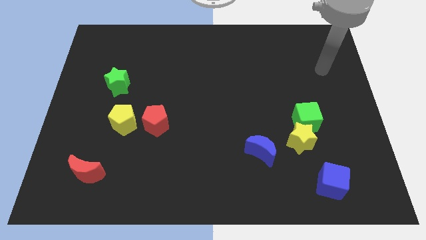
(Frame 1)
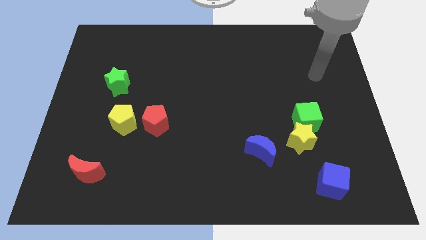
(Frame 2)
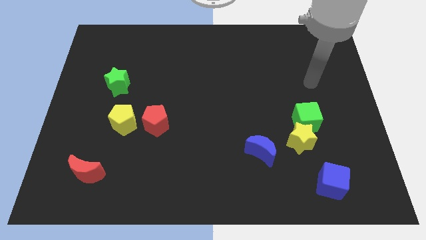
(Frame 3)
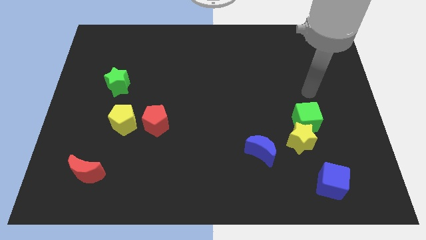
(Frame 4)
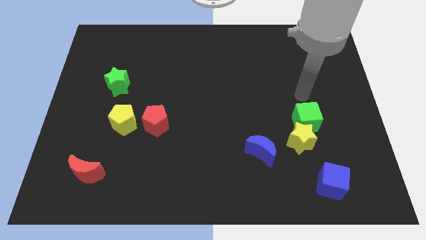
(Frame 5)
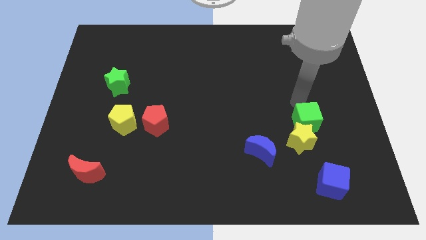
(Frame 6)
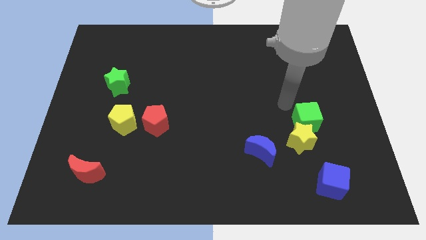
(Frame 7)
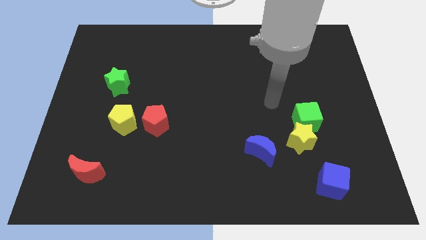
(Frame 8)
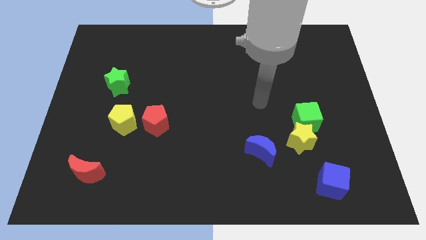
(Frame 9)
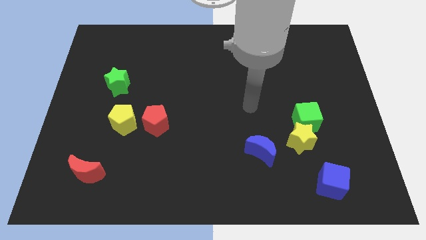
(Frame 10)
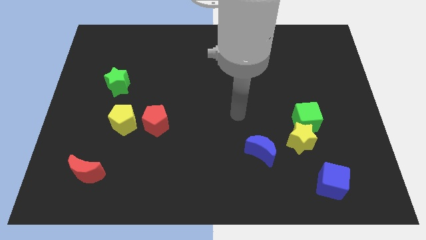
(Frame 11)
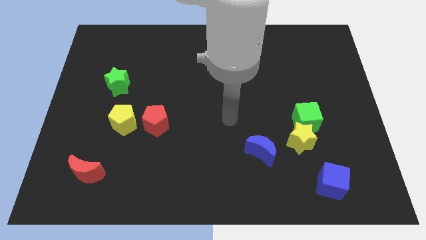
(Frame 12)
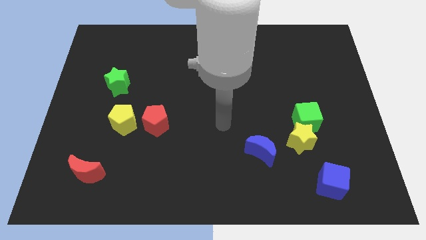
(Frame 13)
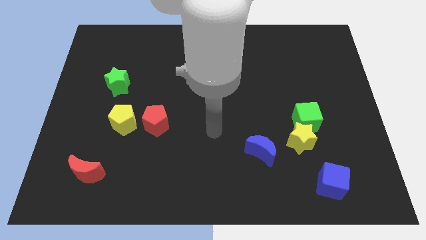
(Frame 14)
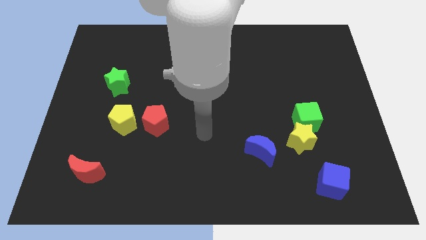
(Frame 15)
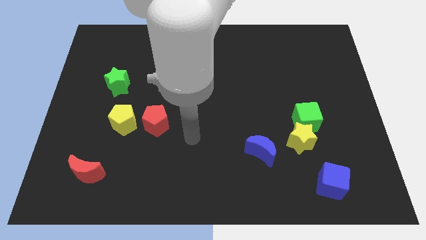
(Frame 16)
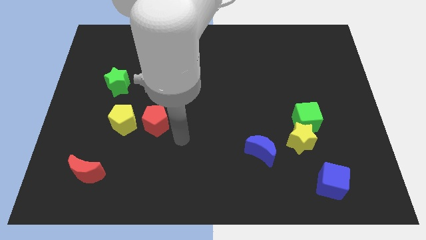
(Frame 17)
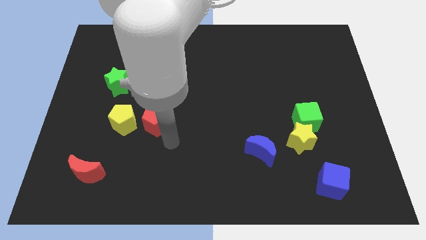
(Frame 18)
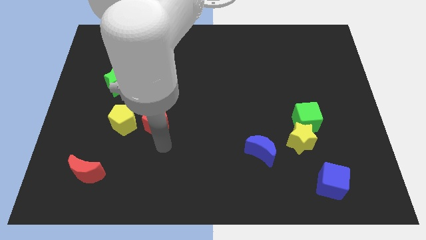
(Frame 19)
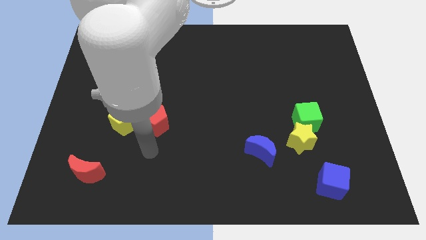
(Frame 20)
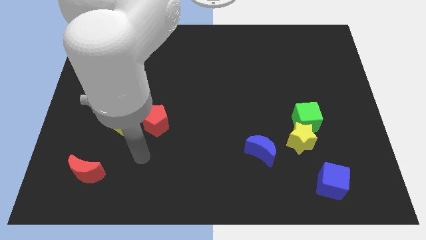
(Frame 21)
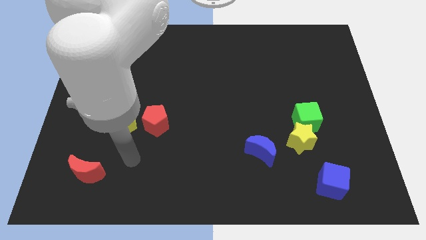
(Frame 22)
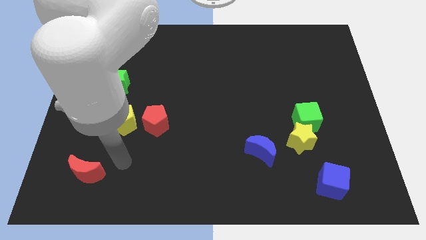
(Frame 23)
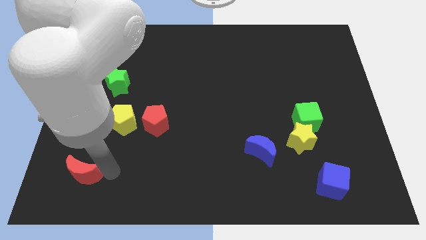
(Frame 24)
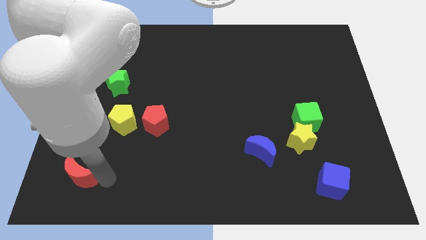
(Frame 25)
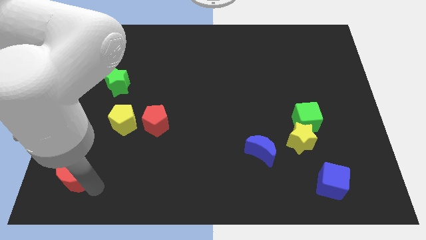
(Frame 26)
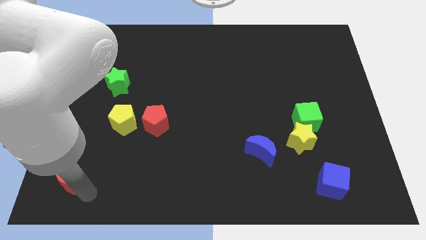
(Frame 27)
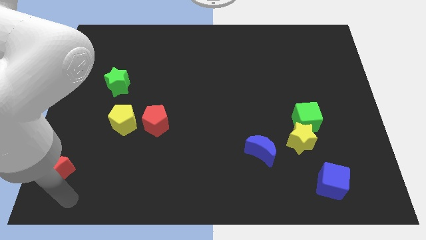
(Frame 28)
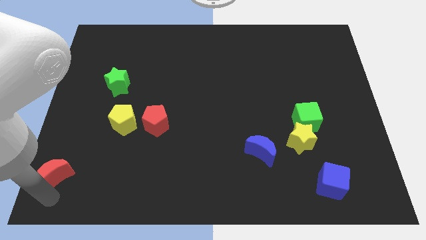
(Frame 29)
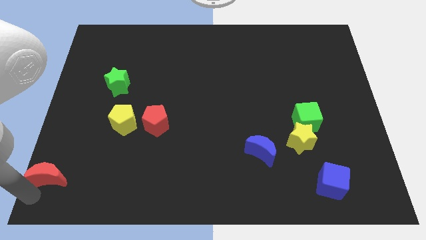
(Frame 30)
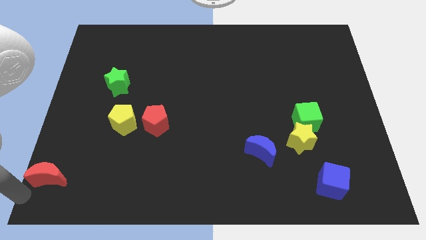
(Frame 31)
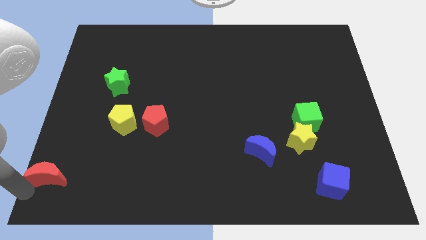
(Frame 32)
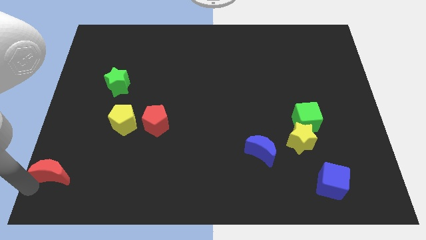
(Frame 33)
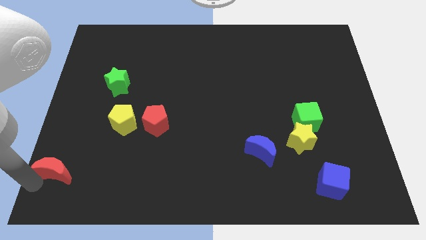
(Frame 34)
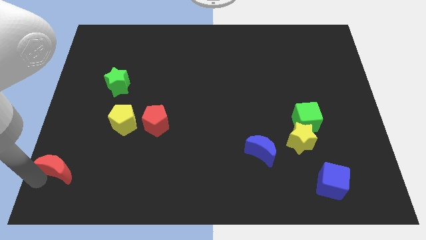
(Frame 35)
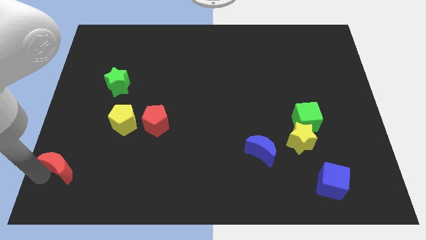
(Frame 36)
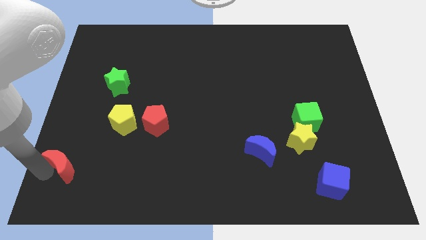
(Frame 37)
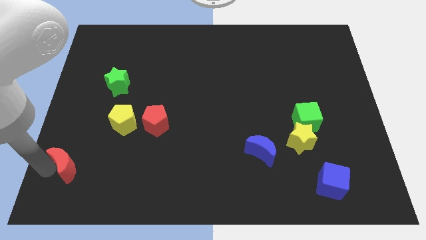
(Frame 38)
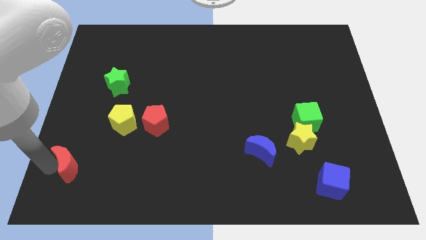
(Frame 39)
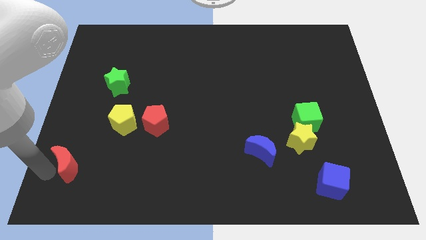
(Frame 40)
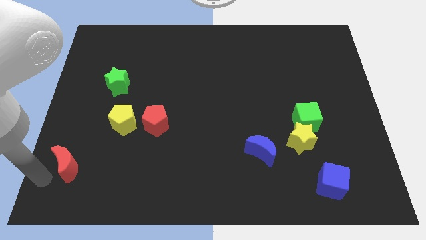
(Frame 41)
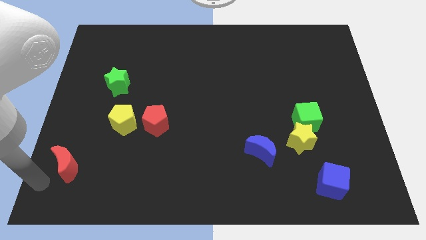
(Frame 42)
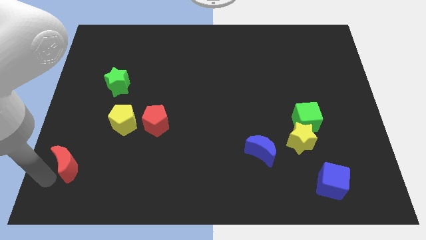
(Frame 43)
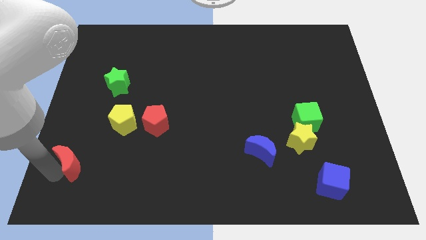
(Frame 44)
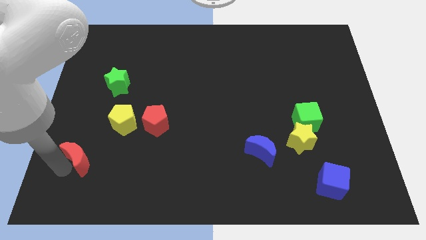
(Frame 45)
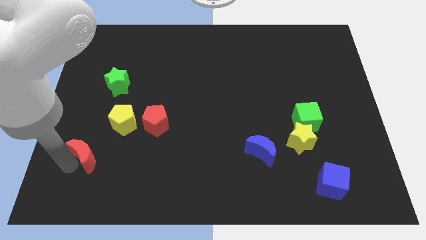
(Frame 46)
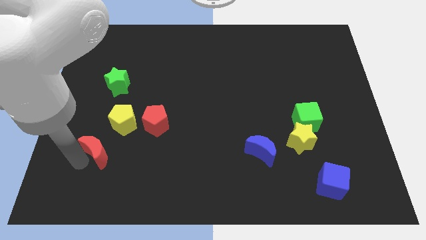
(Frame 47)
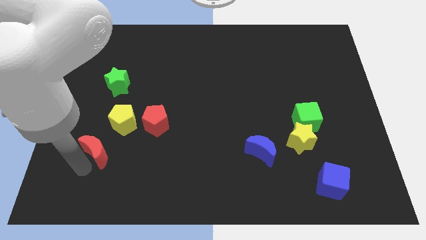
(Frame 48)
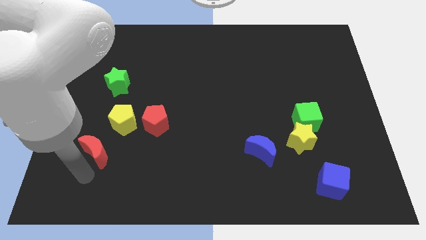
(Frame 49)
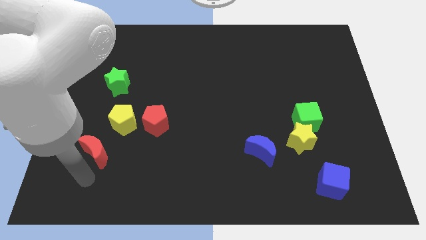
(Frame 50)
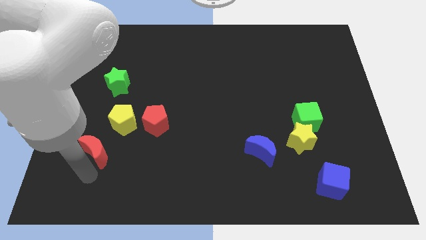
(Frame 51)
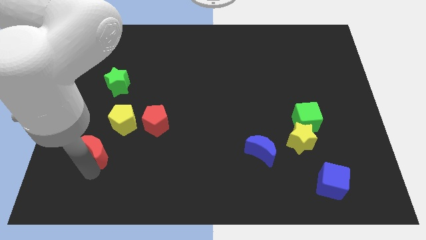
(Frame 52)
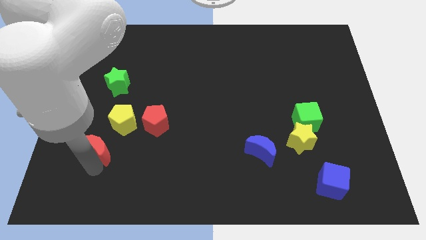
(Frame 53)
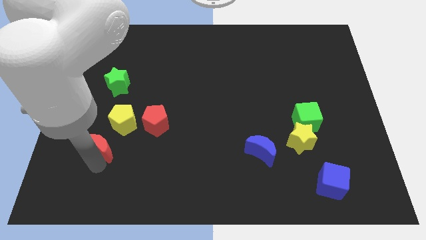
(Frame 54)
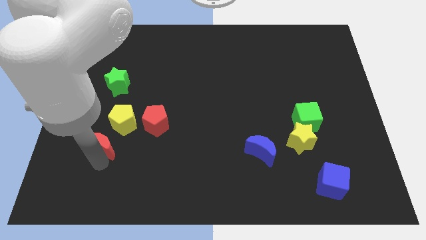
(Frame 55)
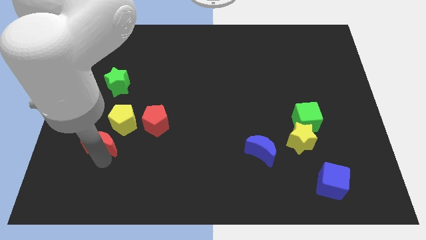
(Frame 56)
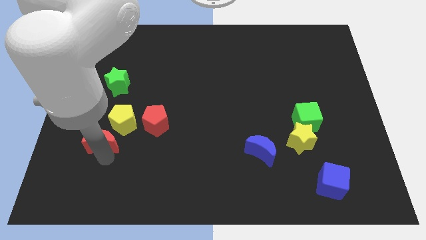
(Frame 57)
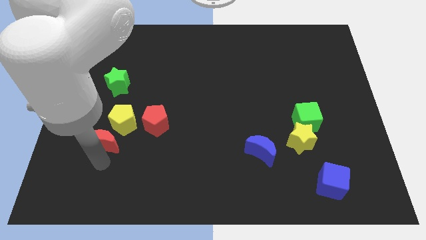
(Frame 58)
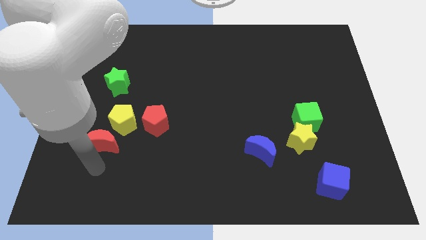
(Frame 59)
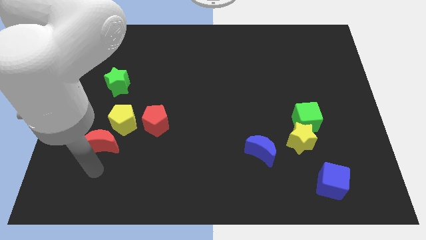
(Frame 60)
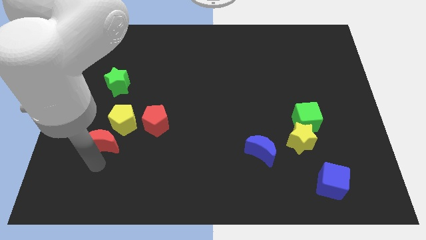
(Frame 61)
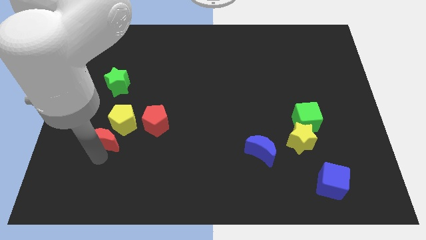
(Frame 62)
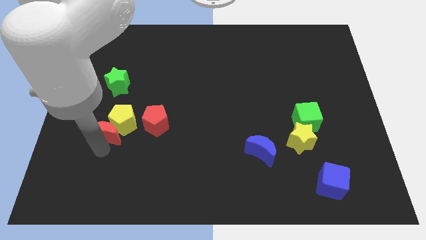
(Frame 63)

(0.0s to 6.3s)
slide the red moon to the left side of the red pentagon

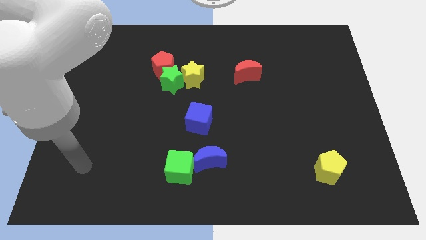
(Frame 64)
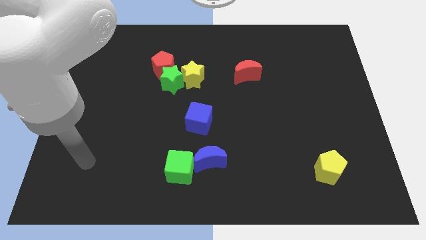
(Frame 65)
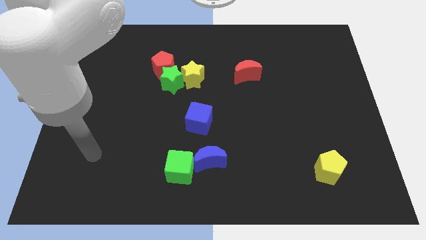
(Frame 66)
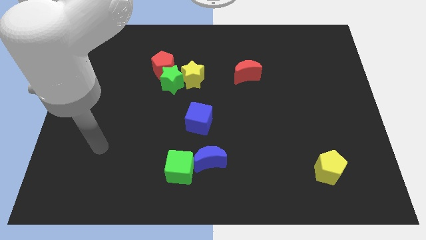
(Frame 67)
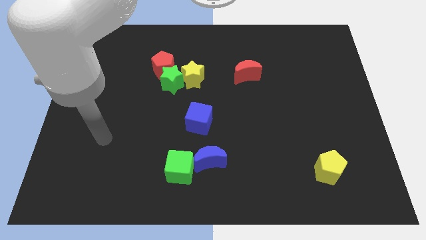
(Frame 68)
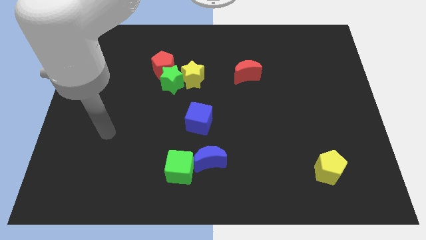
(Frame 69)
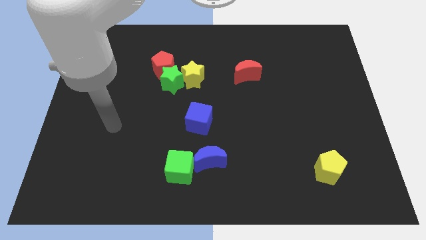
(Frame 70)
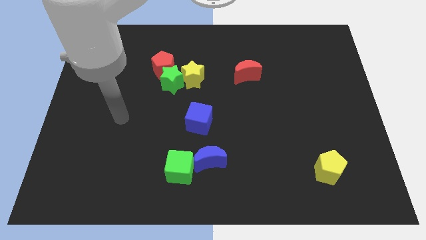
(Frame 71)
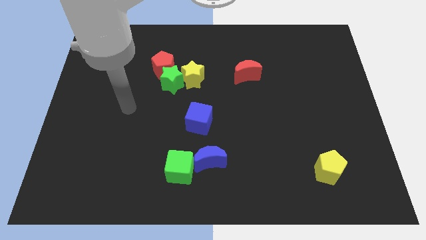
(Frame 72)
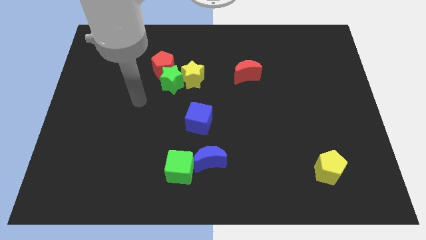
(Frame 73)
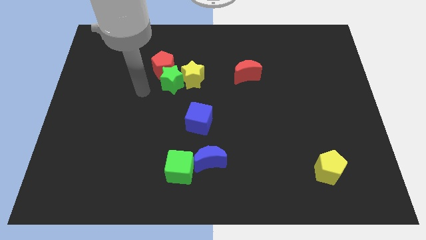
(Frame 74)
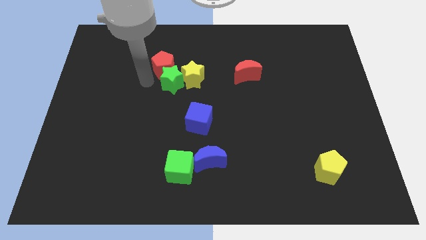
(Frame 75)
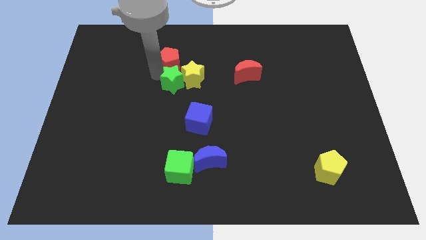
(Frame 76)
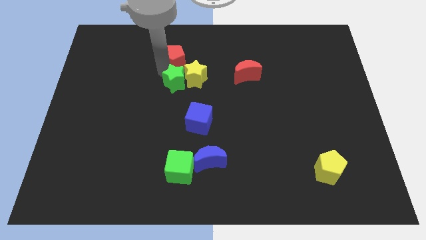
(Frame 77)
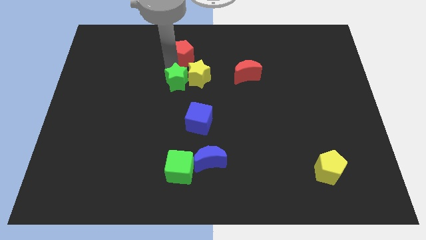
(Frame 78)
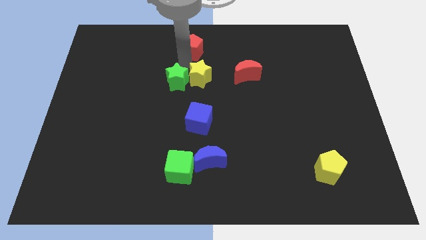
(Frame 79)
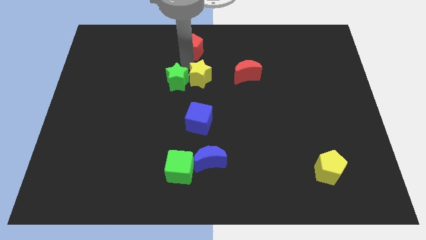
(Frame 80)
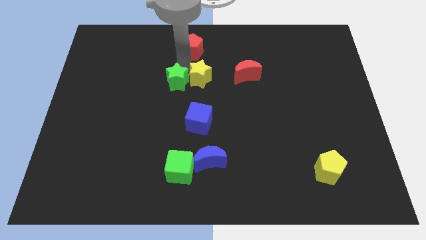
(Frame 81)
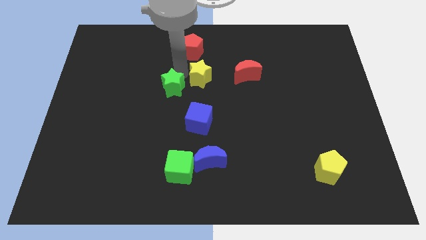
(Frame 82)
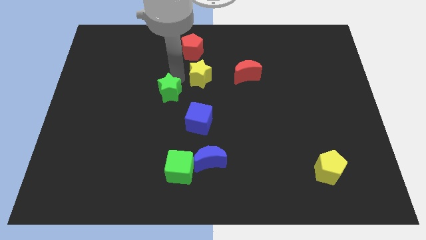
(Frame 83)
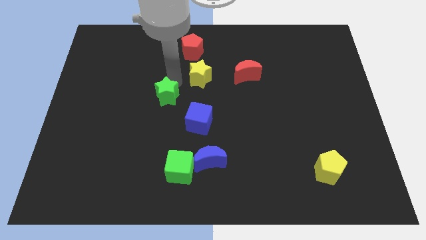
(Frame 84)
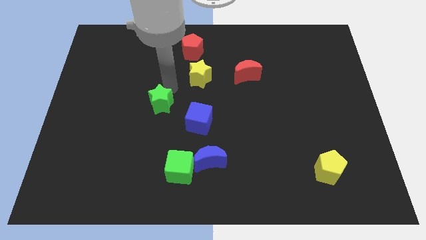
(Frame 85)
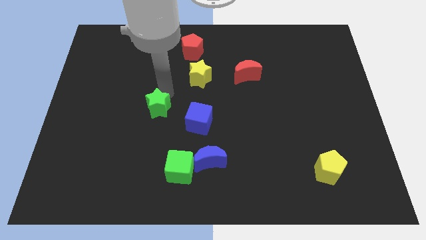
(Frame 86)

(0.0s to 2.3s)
slide the green star to the left of the blue cube
